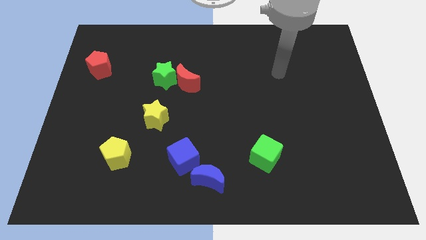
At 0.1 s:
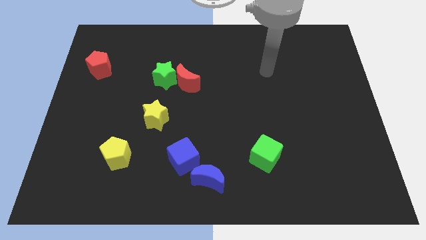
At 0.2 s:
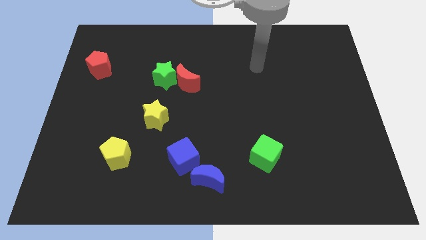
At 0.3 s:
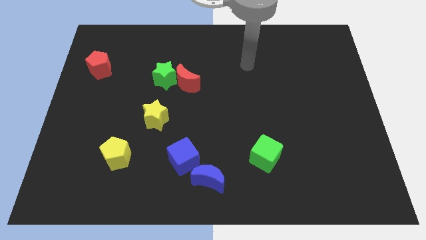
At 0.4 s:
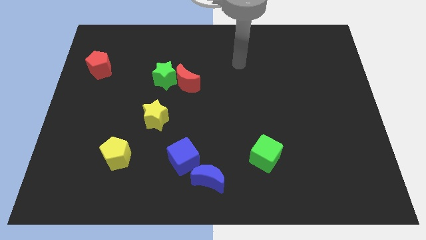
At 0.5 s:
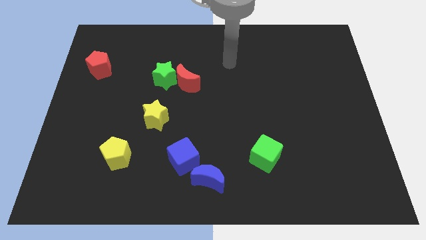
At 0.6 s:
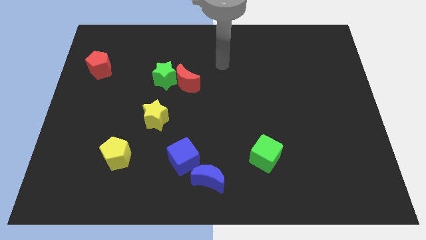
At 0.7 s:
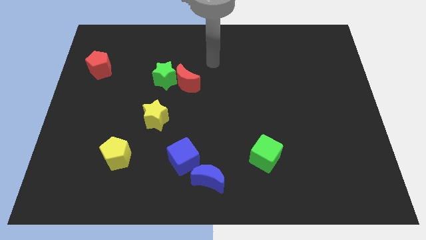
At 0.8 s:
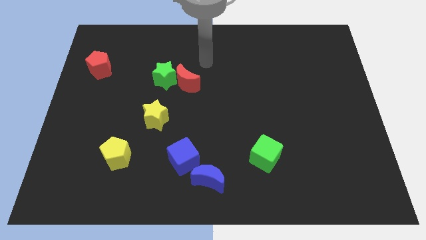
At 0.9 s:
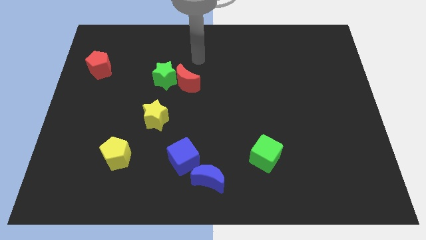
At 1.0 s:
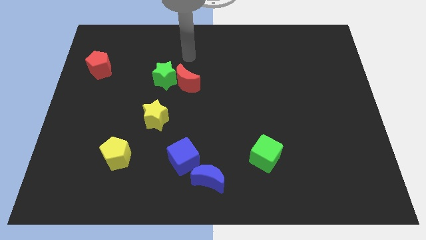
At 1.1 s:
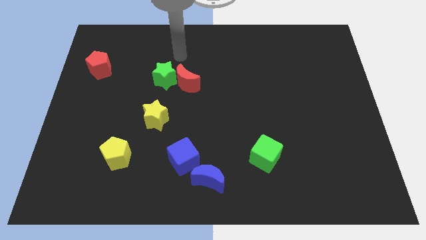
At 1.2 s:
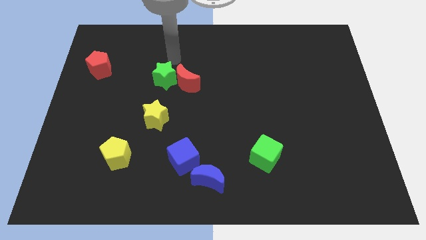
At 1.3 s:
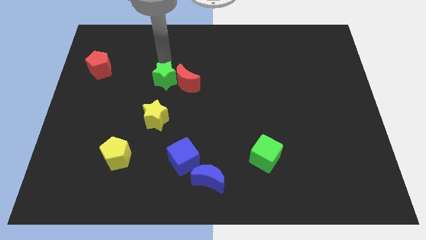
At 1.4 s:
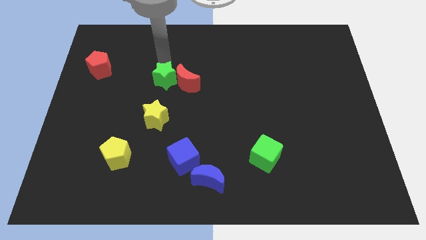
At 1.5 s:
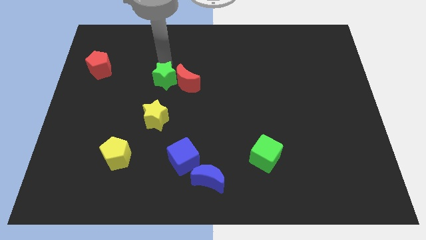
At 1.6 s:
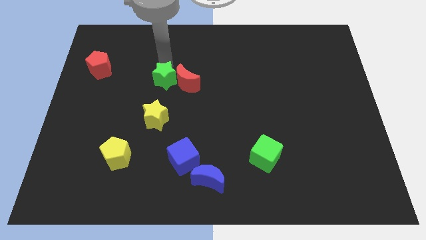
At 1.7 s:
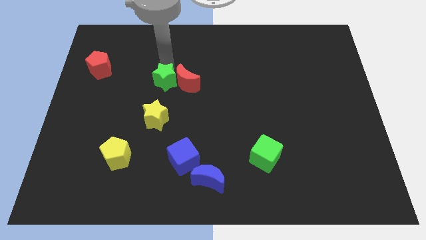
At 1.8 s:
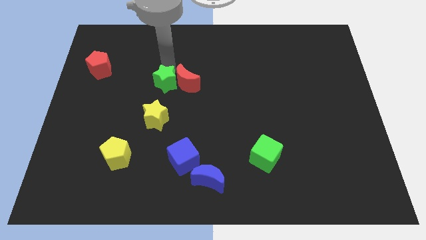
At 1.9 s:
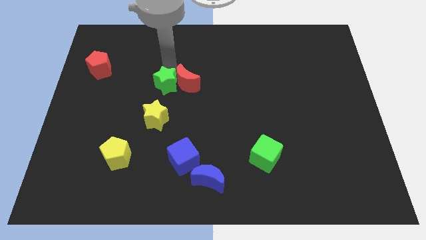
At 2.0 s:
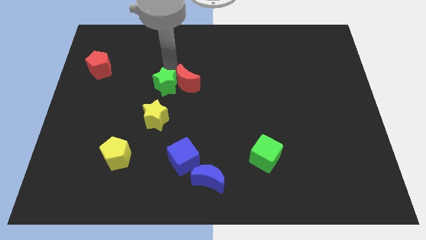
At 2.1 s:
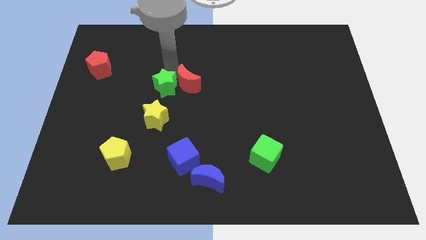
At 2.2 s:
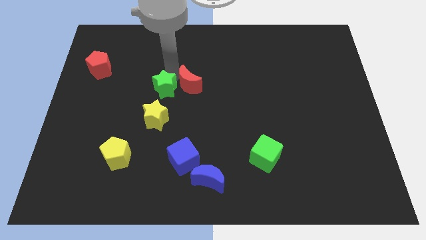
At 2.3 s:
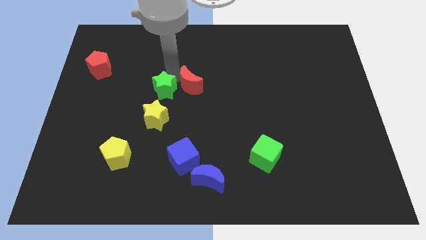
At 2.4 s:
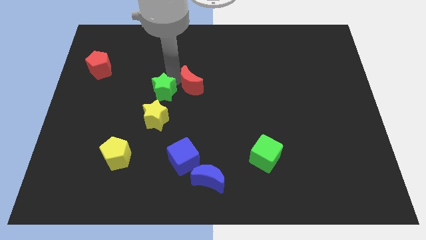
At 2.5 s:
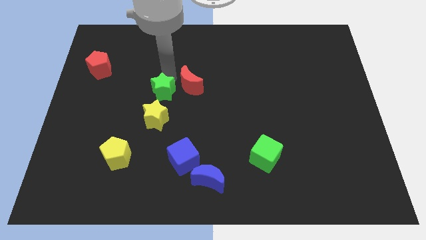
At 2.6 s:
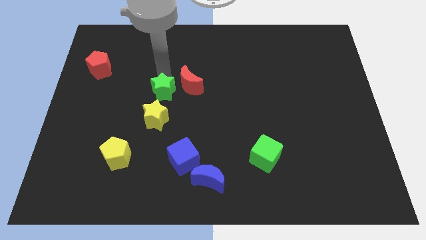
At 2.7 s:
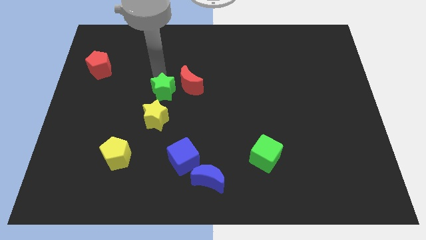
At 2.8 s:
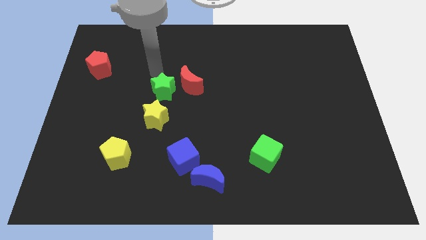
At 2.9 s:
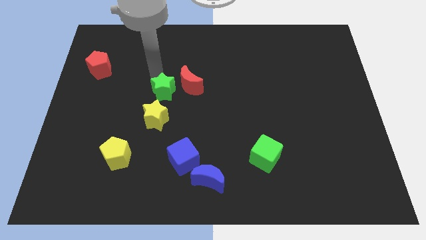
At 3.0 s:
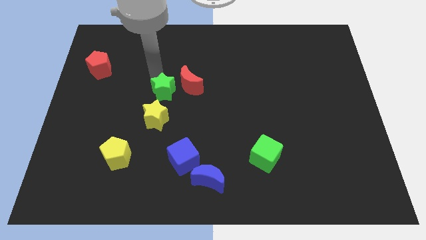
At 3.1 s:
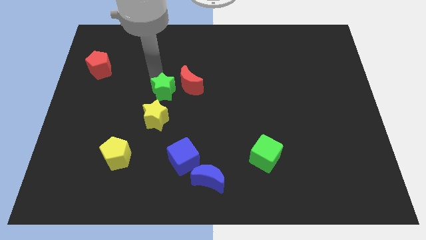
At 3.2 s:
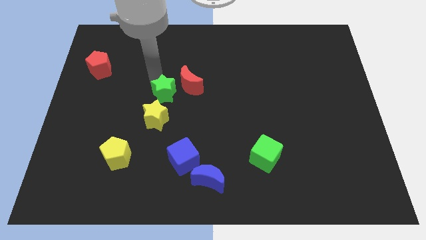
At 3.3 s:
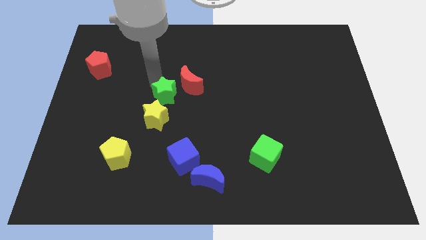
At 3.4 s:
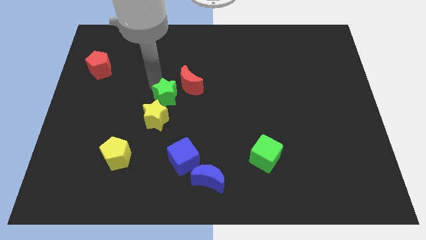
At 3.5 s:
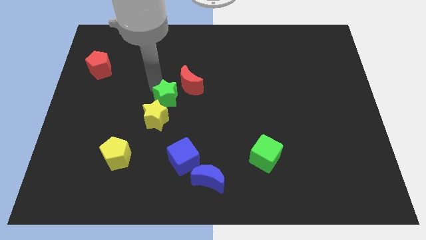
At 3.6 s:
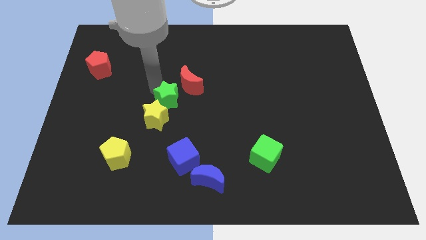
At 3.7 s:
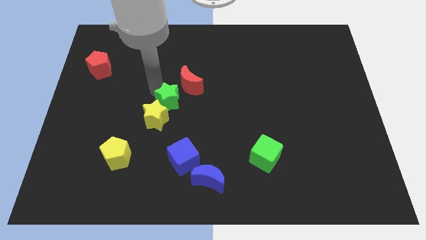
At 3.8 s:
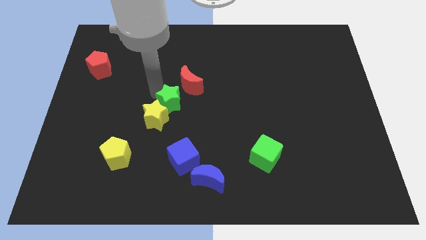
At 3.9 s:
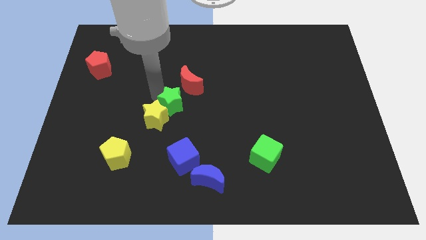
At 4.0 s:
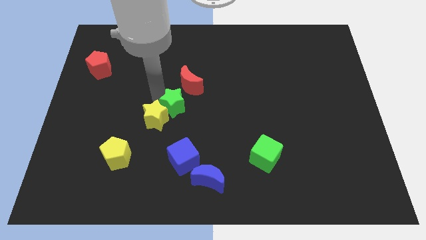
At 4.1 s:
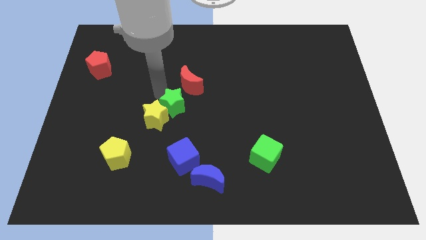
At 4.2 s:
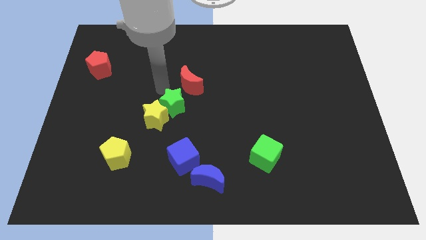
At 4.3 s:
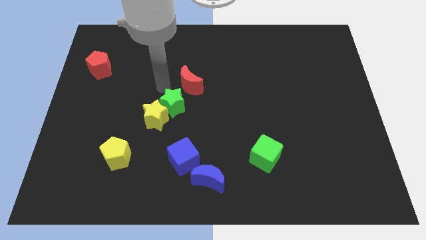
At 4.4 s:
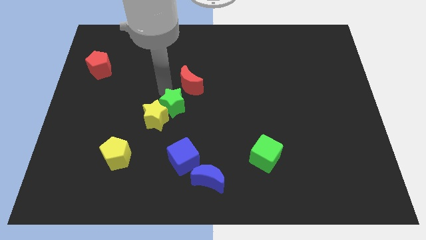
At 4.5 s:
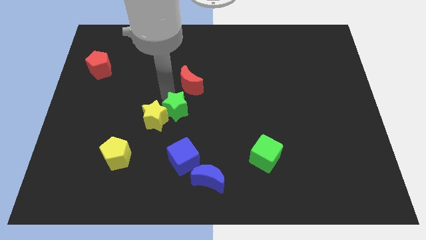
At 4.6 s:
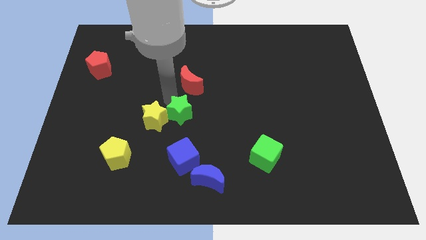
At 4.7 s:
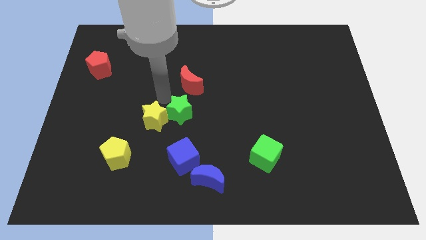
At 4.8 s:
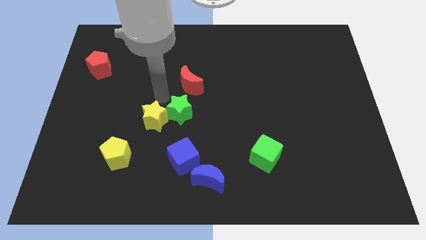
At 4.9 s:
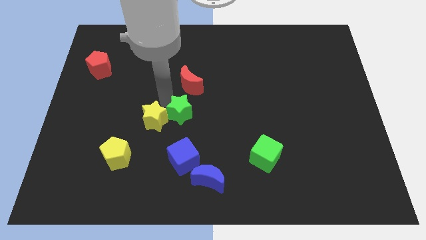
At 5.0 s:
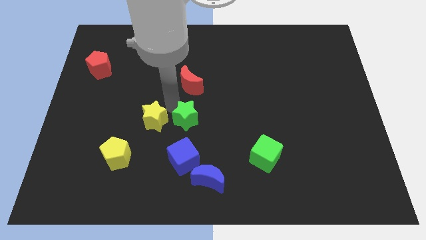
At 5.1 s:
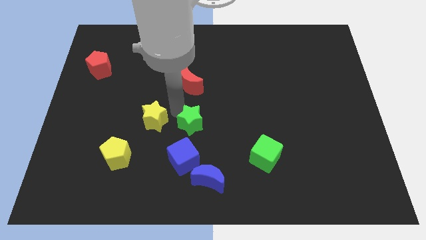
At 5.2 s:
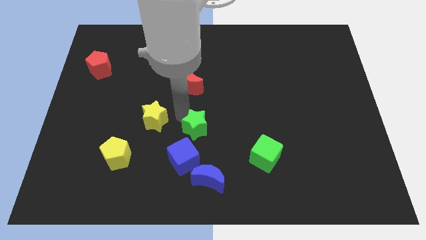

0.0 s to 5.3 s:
move the green star to the top side of the blue moon

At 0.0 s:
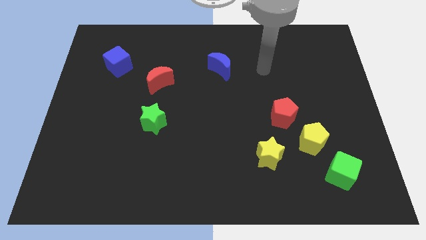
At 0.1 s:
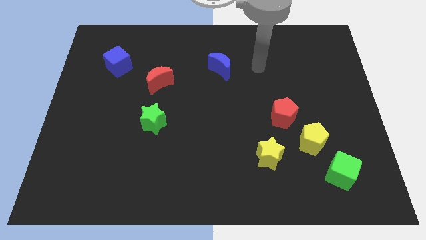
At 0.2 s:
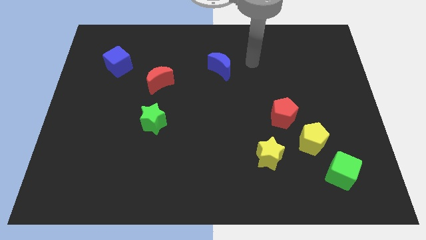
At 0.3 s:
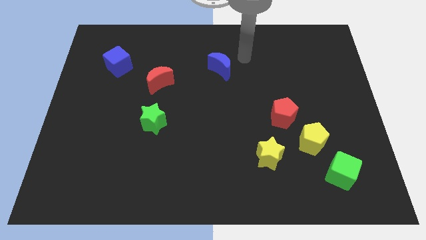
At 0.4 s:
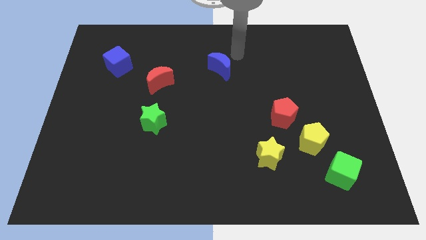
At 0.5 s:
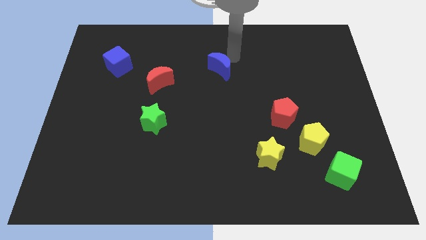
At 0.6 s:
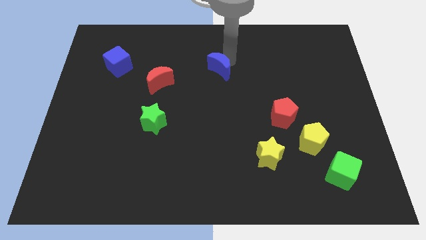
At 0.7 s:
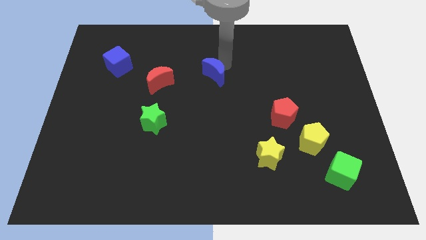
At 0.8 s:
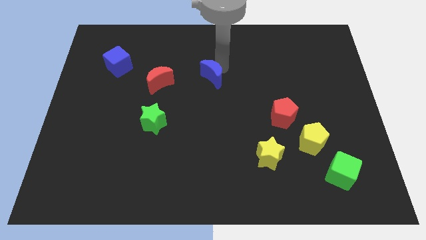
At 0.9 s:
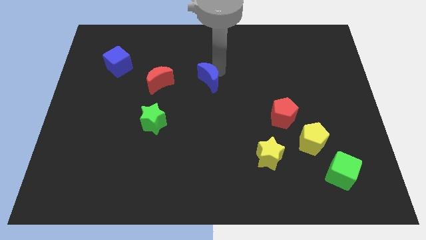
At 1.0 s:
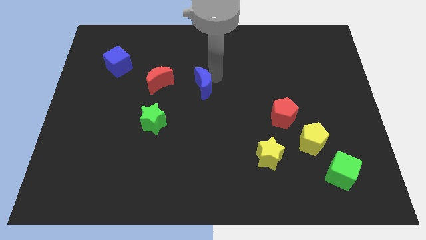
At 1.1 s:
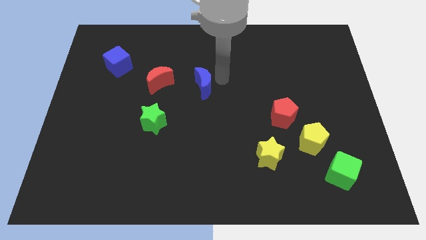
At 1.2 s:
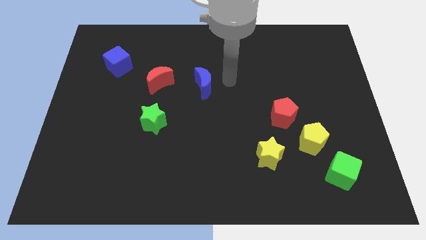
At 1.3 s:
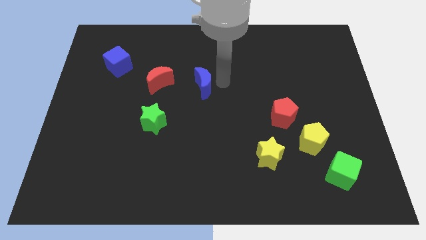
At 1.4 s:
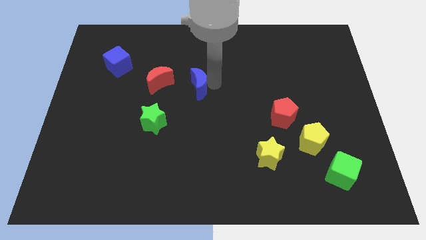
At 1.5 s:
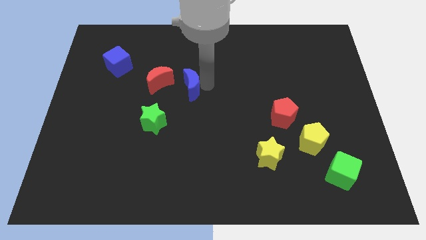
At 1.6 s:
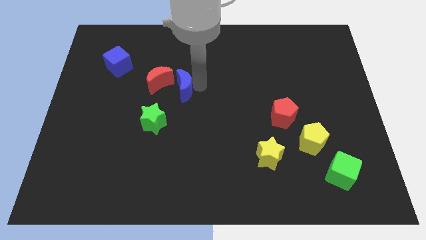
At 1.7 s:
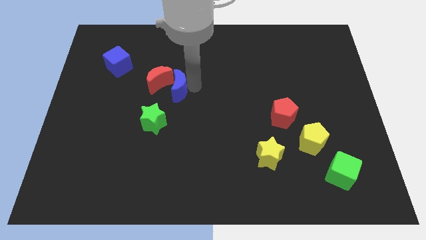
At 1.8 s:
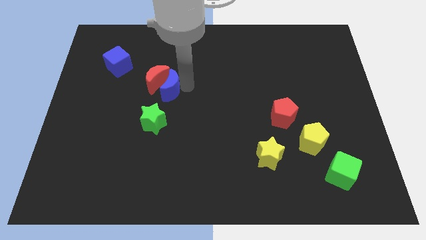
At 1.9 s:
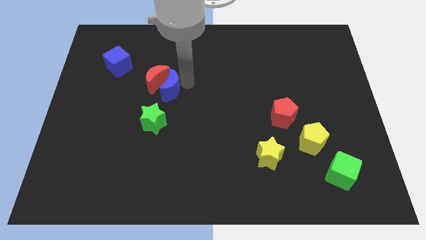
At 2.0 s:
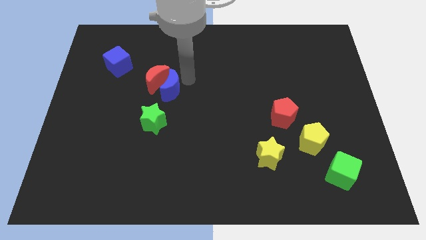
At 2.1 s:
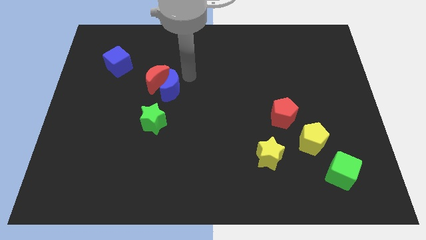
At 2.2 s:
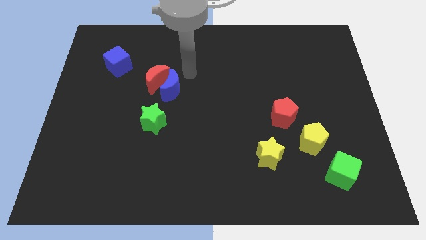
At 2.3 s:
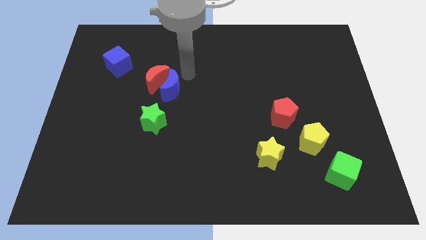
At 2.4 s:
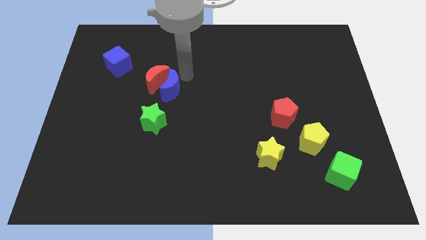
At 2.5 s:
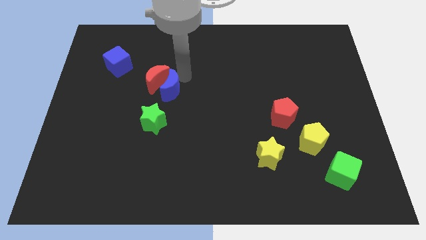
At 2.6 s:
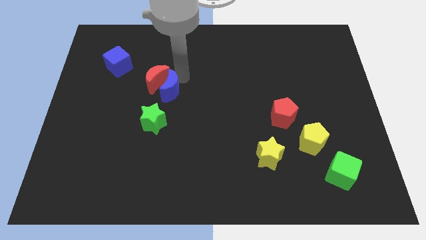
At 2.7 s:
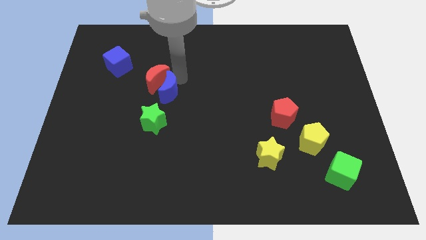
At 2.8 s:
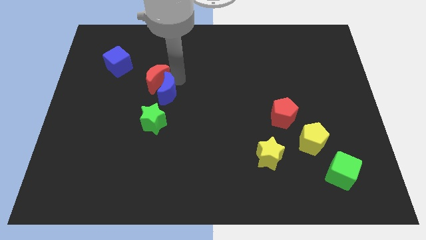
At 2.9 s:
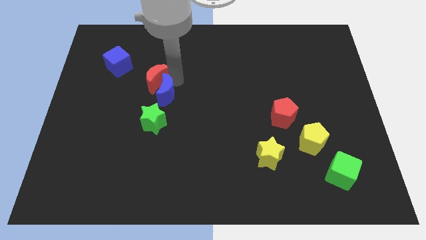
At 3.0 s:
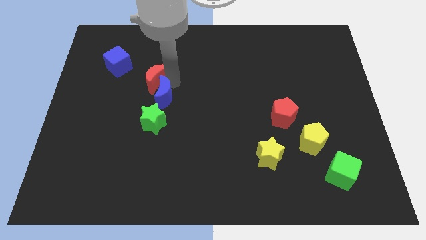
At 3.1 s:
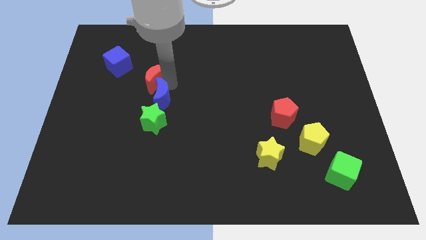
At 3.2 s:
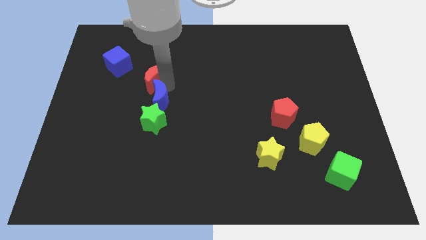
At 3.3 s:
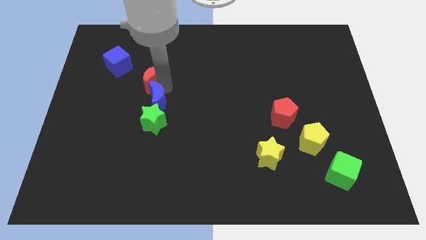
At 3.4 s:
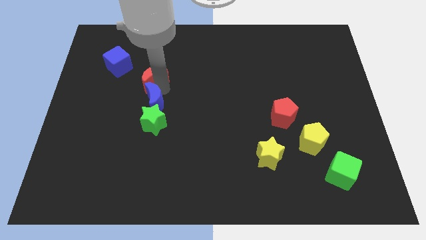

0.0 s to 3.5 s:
slide the blue moon to the top left of the green star
